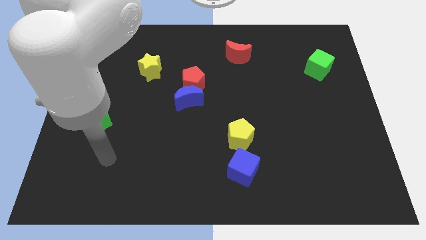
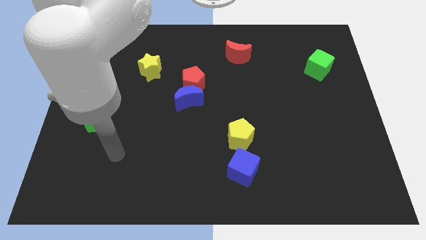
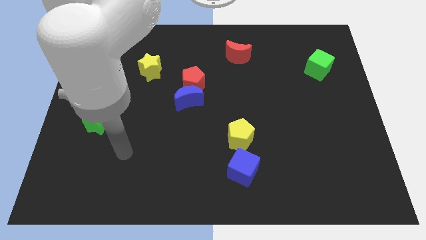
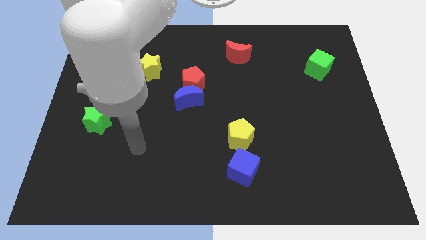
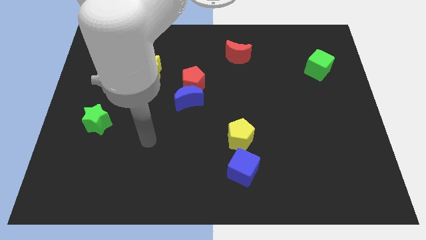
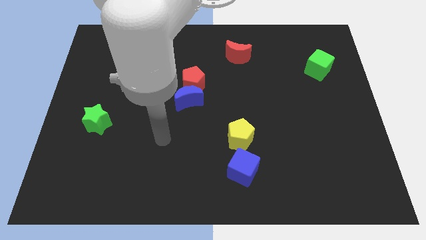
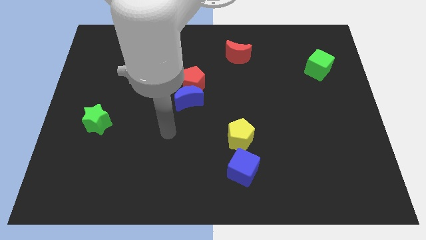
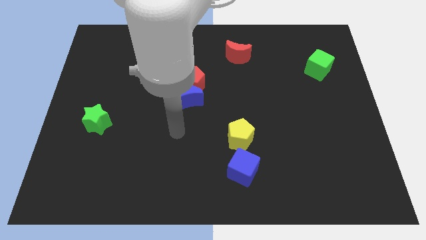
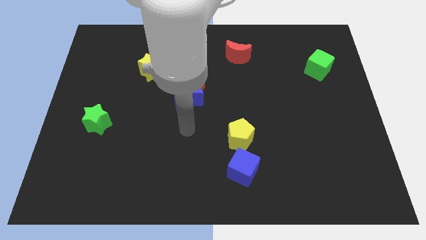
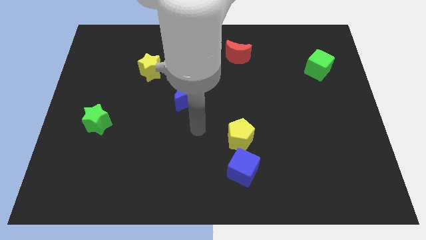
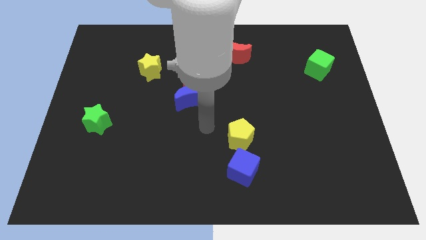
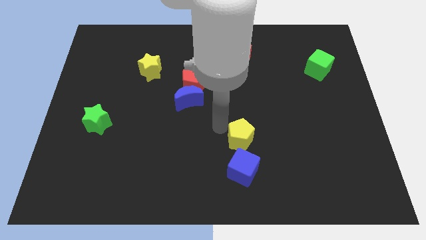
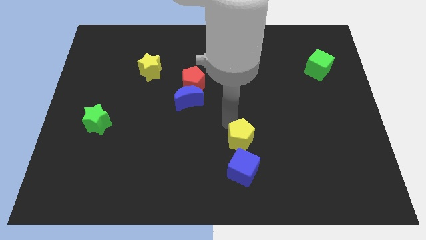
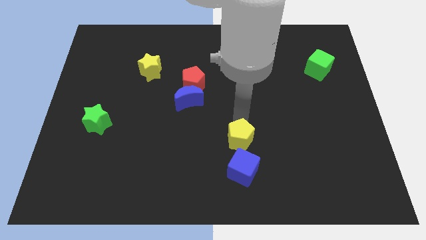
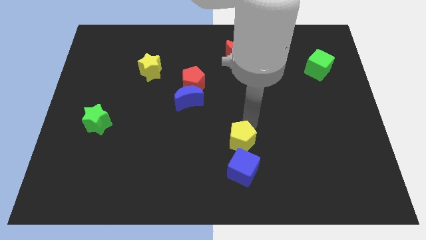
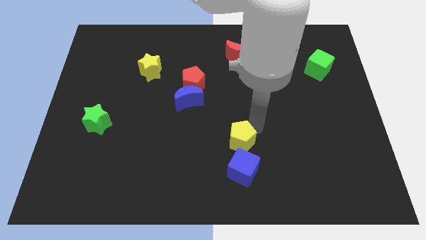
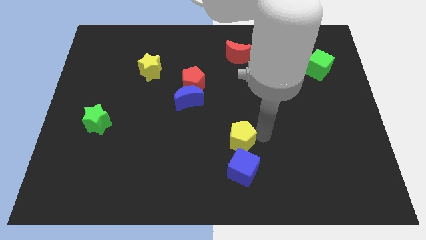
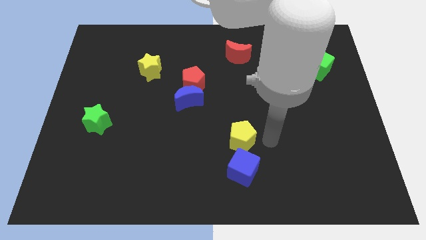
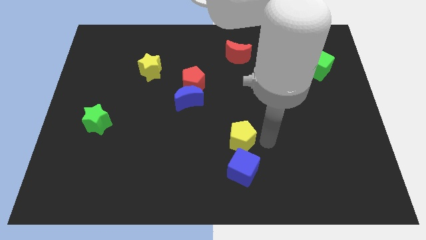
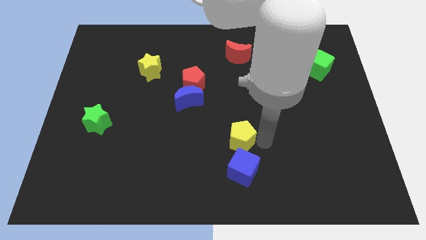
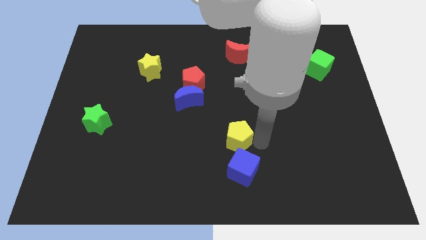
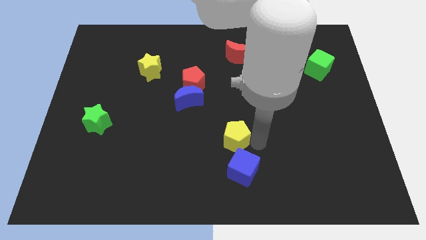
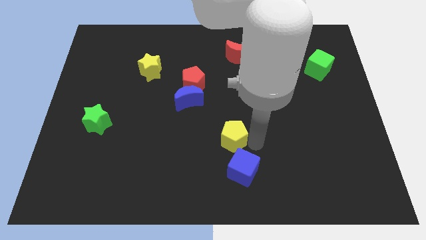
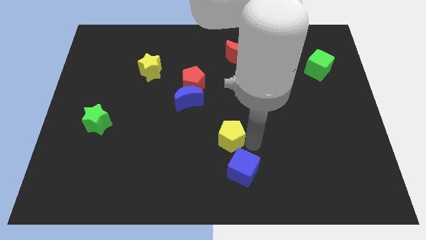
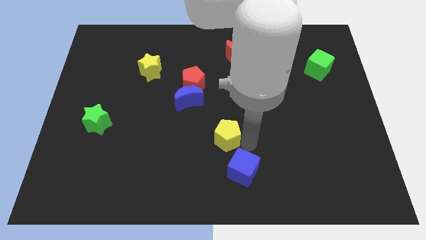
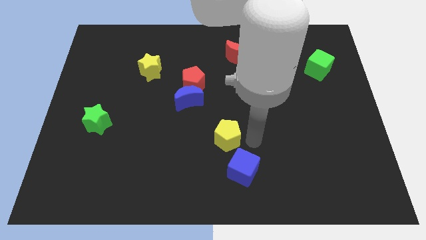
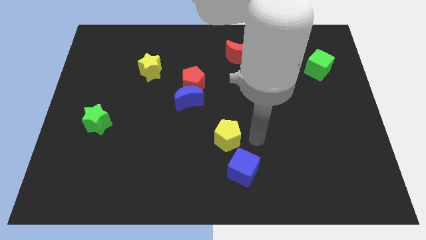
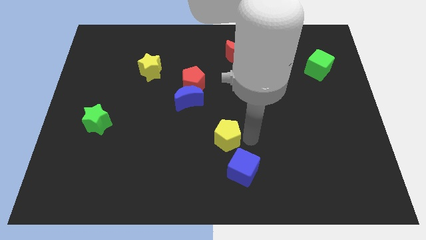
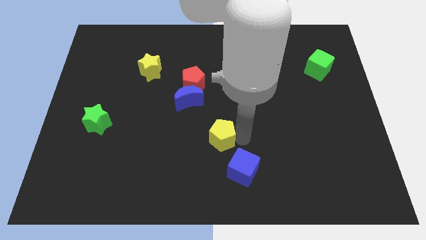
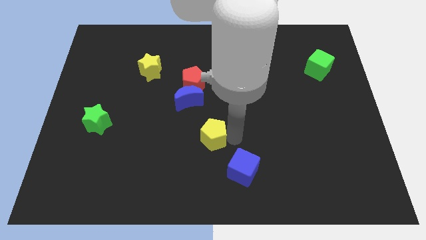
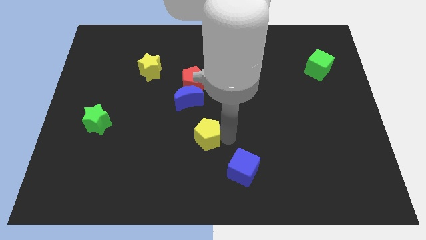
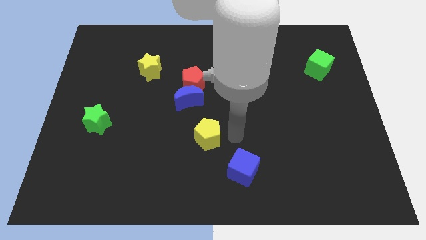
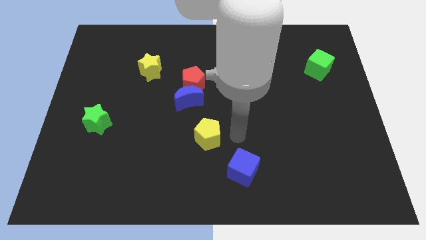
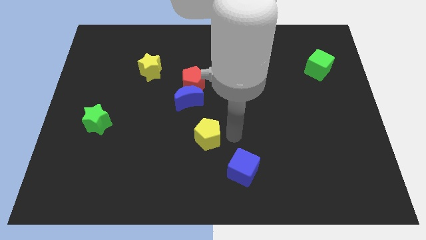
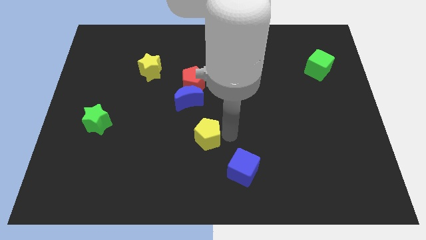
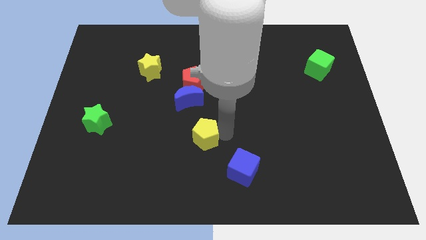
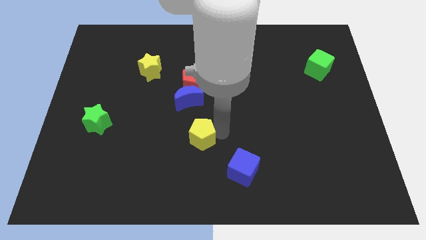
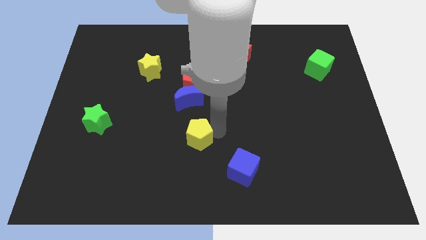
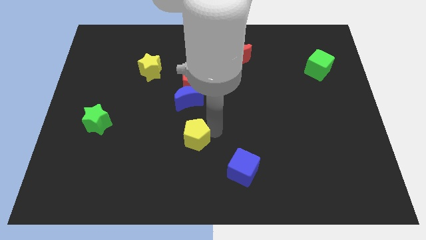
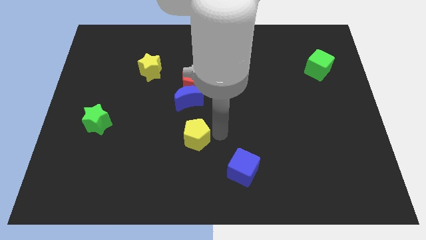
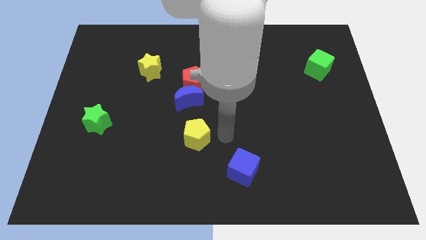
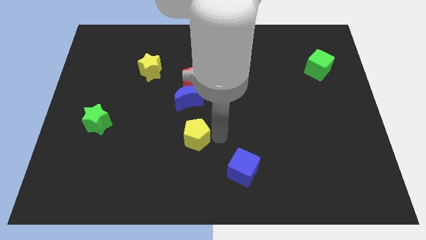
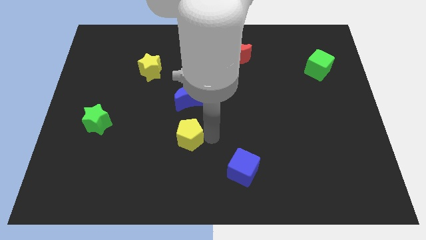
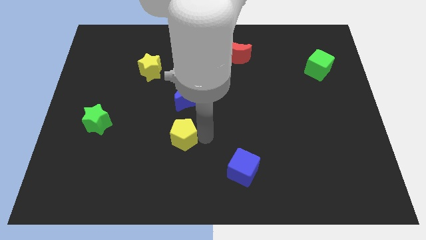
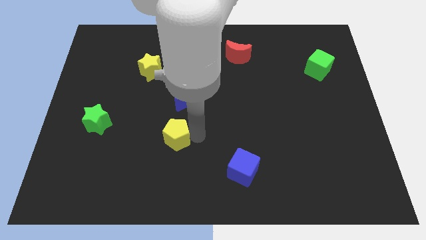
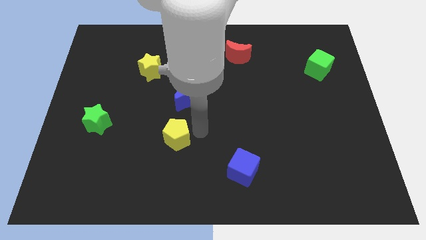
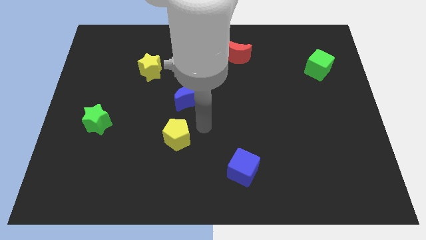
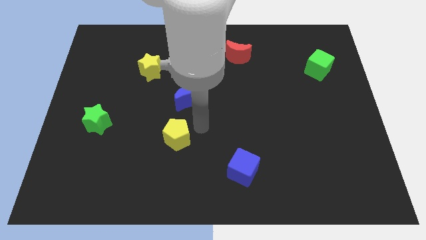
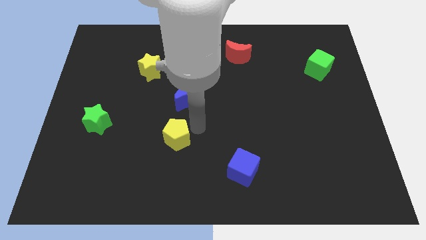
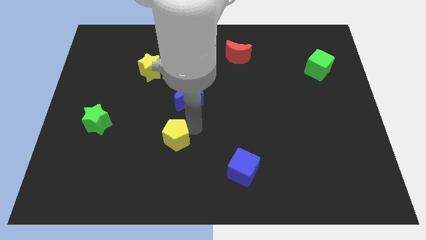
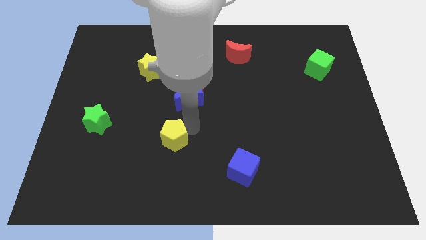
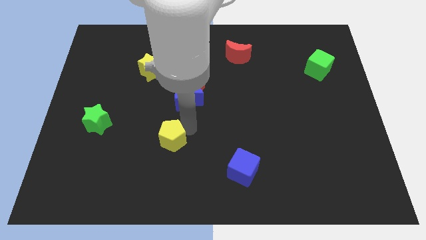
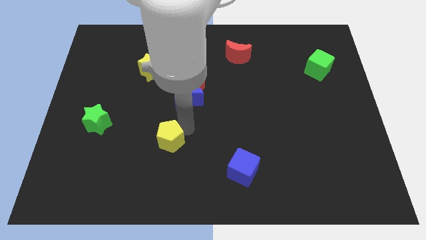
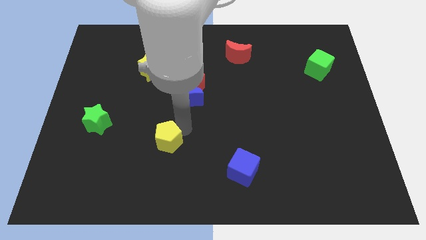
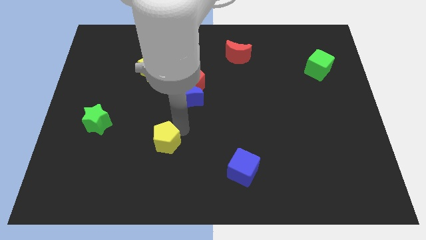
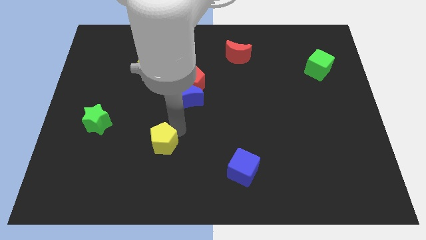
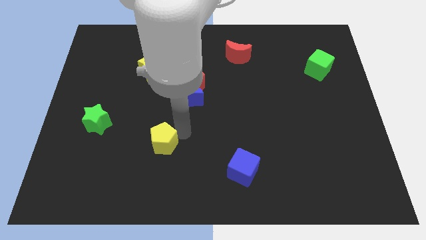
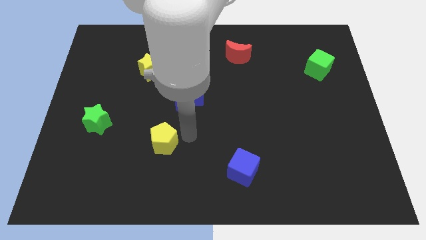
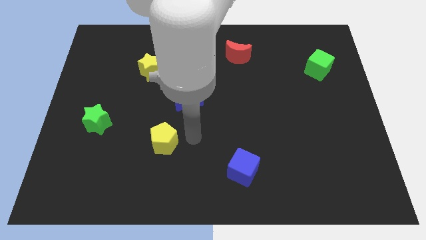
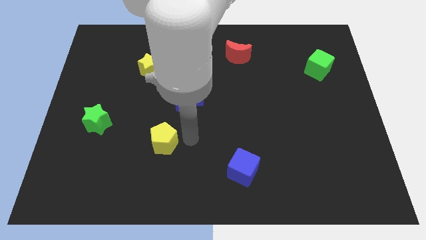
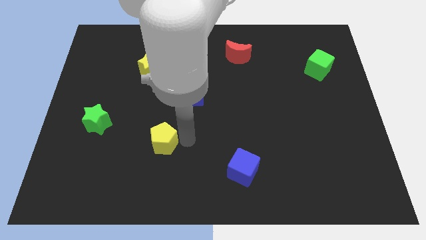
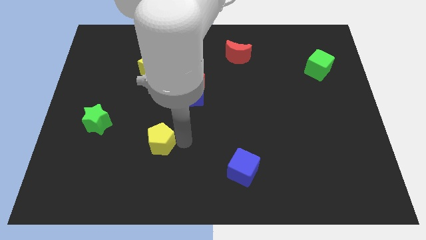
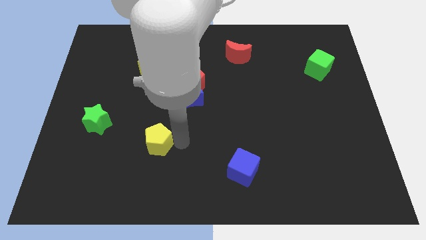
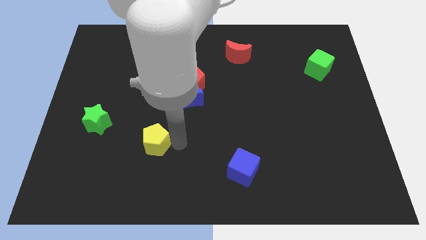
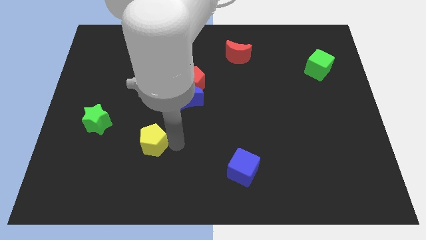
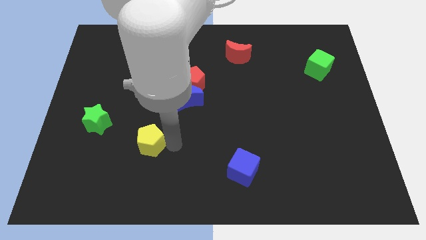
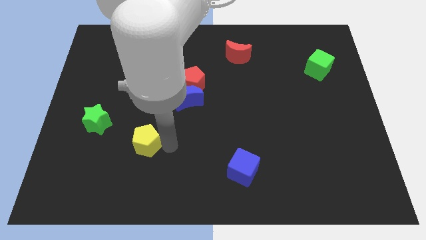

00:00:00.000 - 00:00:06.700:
slide the yellow pentagon to the left

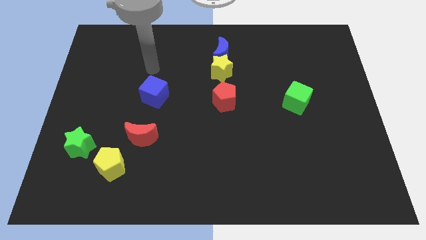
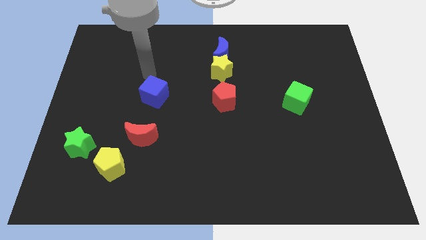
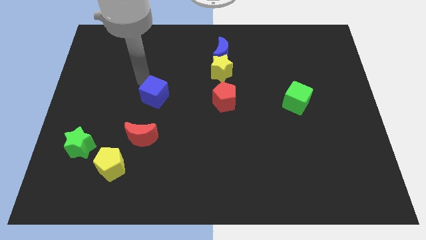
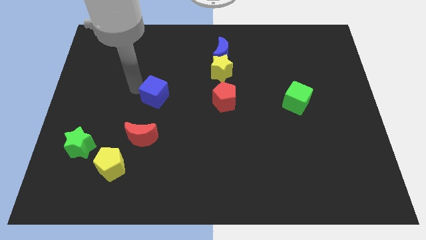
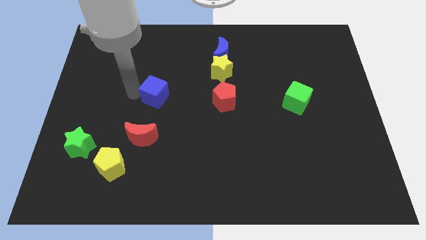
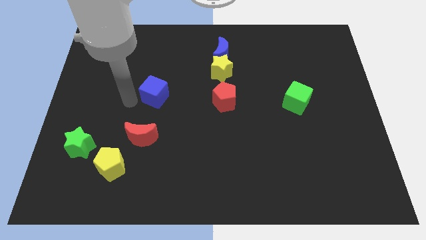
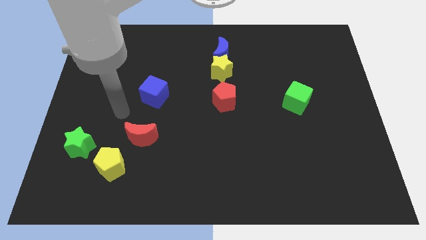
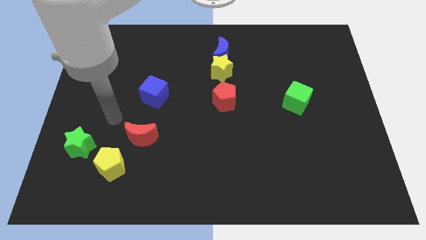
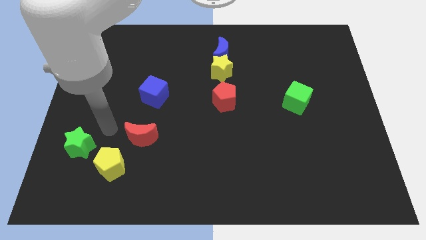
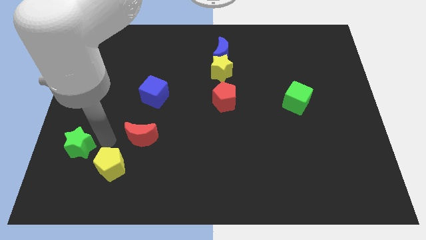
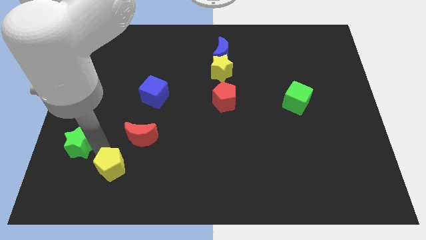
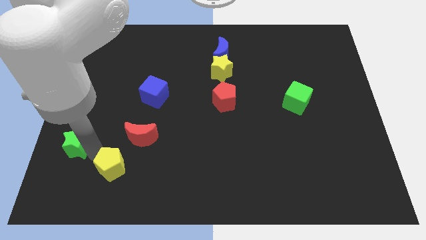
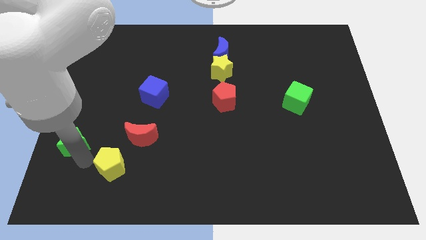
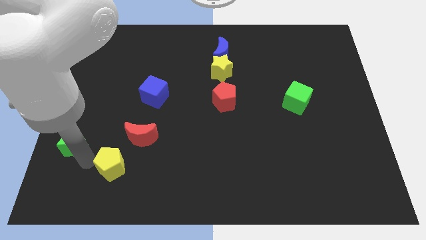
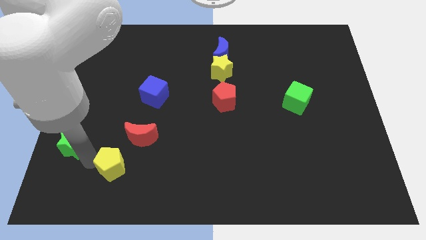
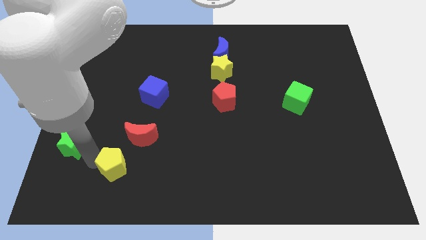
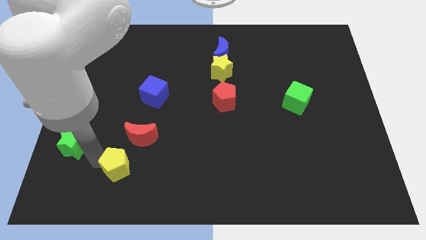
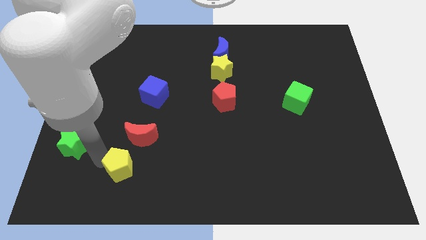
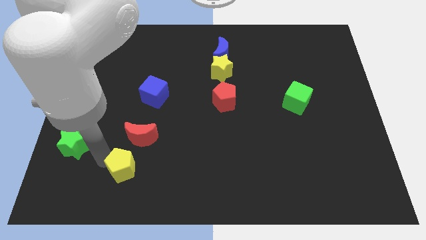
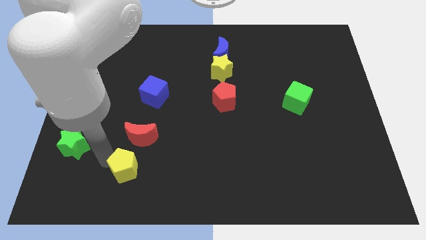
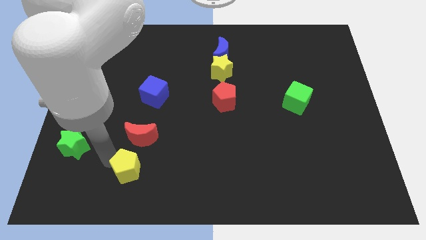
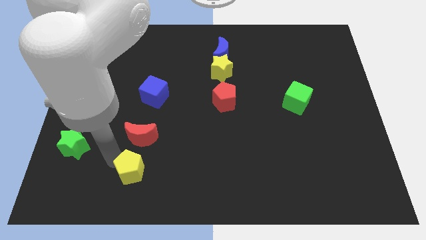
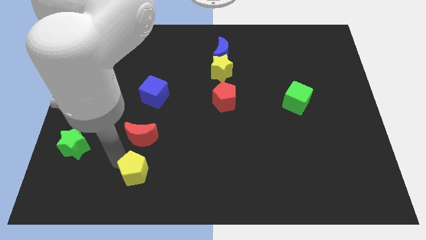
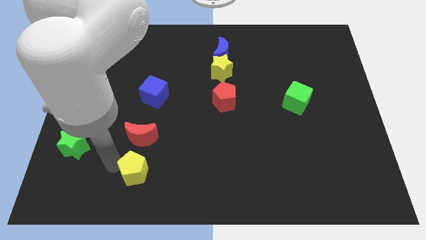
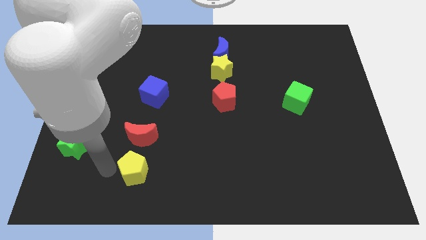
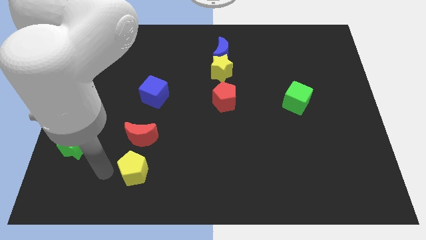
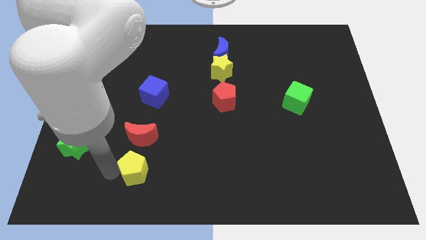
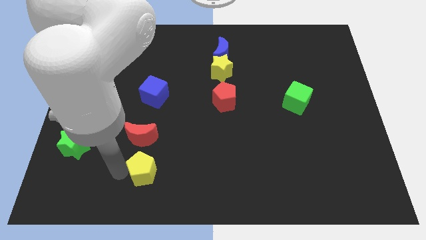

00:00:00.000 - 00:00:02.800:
slide the yellow pentagon right a little bit
